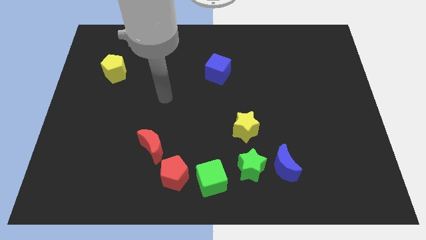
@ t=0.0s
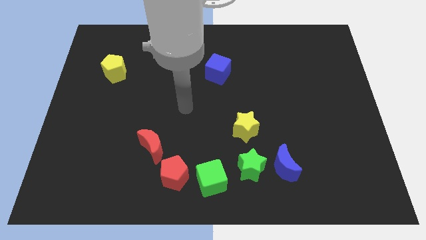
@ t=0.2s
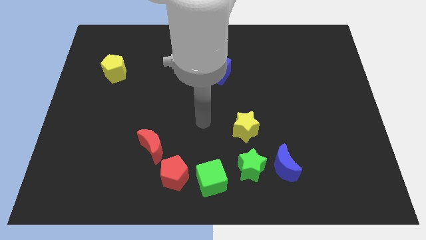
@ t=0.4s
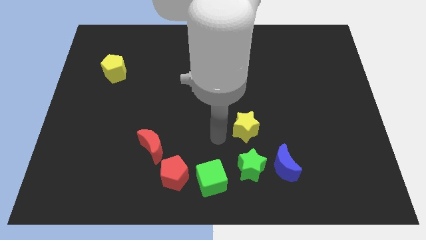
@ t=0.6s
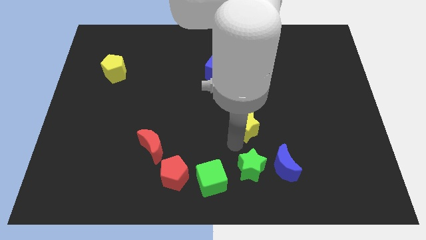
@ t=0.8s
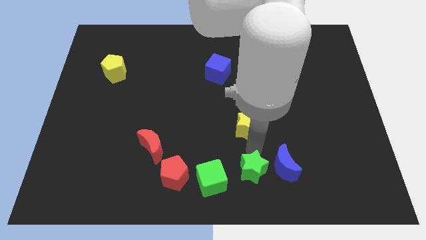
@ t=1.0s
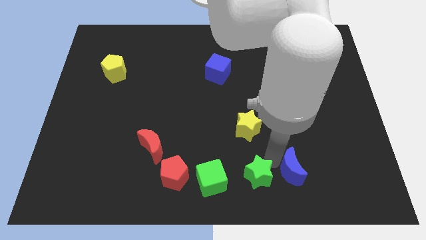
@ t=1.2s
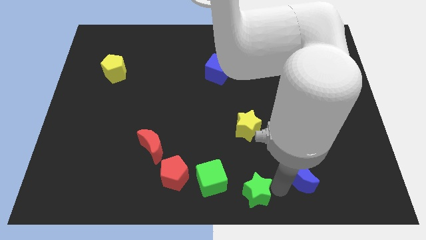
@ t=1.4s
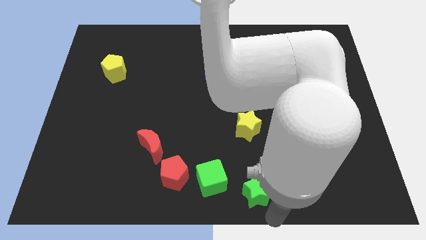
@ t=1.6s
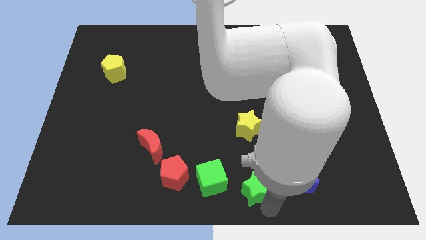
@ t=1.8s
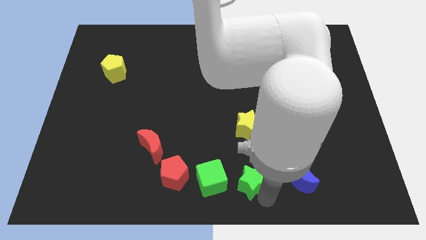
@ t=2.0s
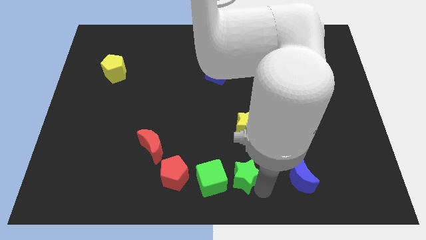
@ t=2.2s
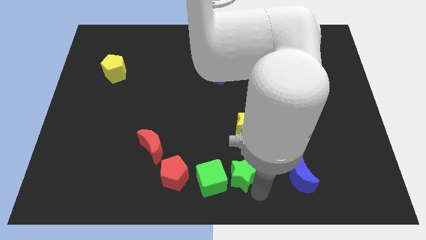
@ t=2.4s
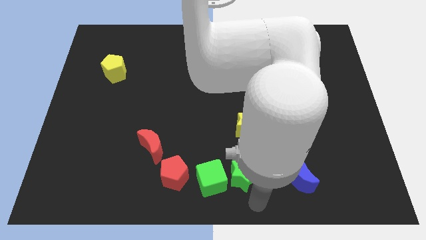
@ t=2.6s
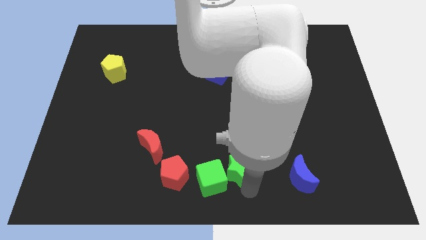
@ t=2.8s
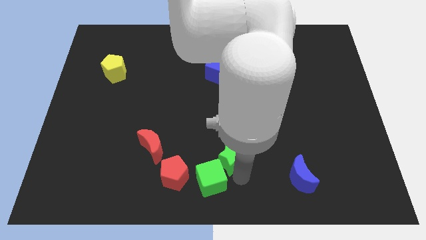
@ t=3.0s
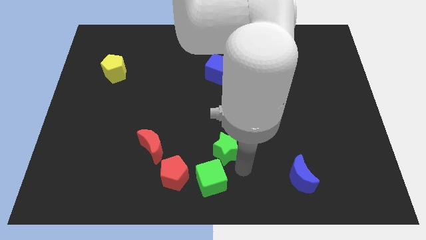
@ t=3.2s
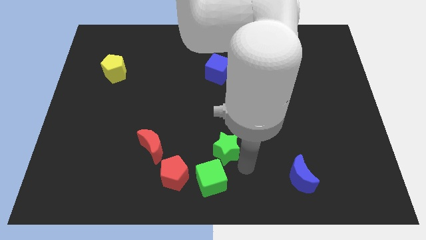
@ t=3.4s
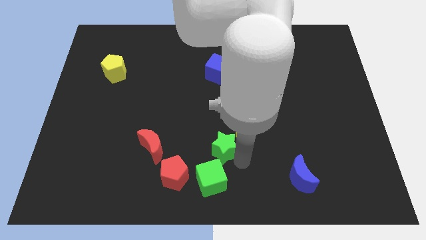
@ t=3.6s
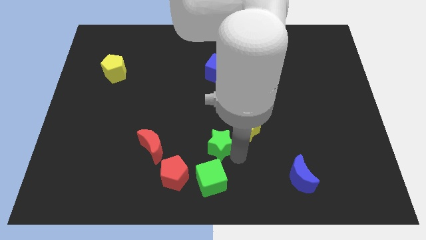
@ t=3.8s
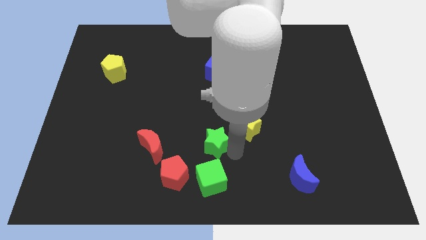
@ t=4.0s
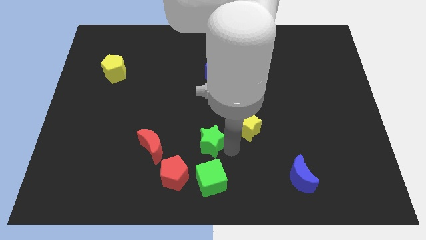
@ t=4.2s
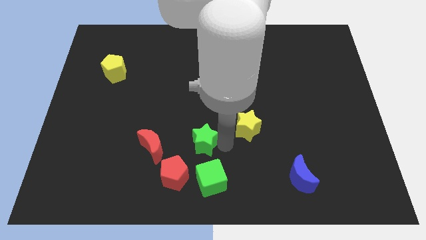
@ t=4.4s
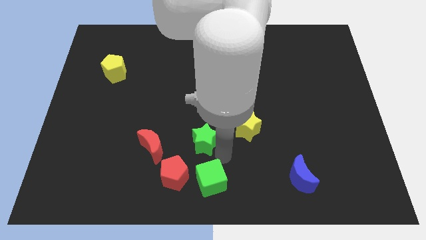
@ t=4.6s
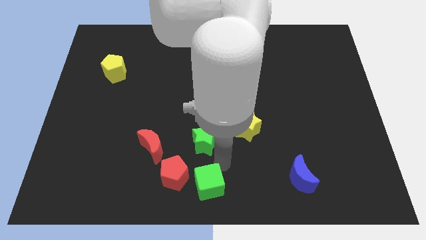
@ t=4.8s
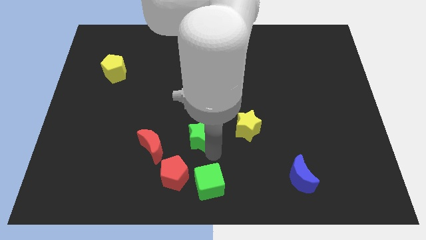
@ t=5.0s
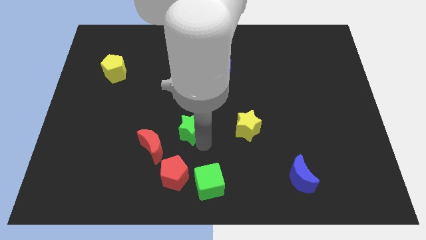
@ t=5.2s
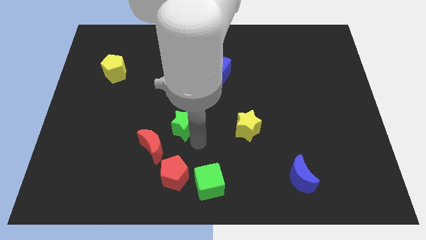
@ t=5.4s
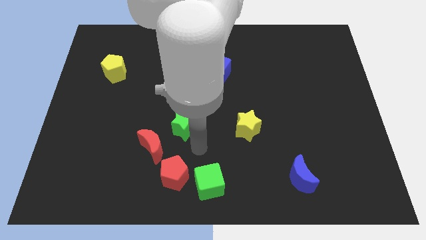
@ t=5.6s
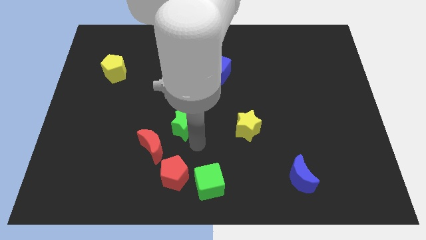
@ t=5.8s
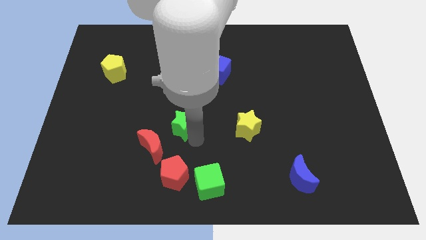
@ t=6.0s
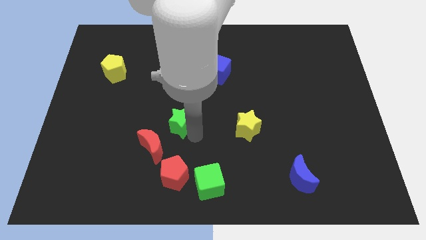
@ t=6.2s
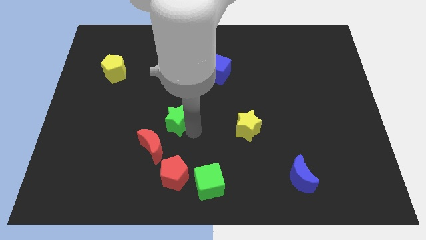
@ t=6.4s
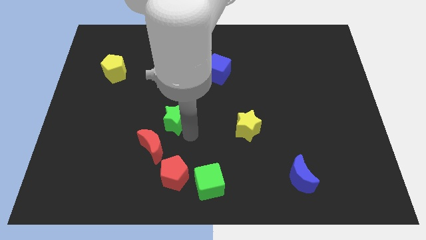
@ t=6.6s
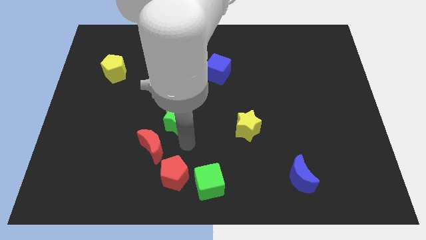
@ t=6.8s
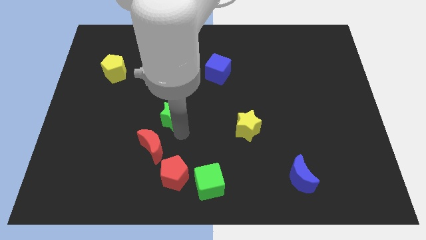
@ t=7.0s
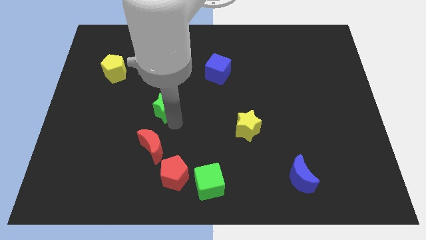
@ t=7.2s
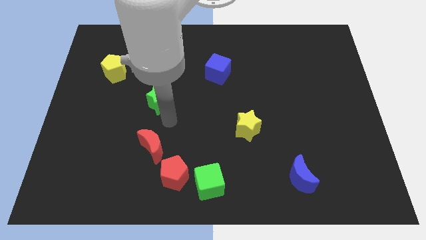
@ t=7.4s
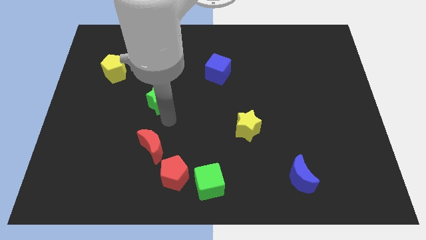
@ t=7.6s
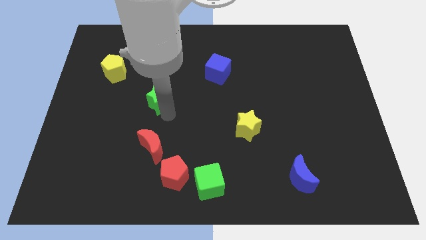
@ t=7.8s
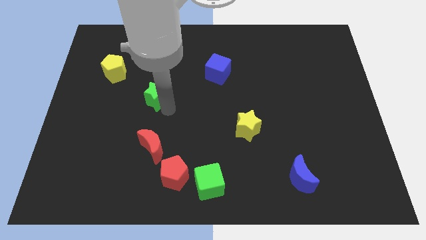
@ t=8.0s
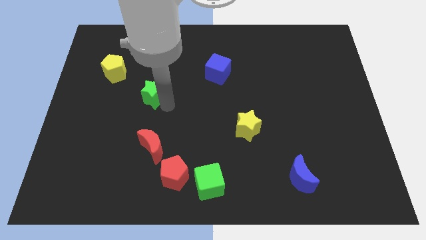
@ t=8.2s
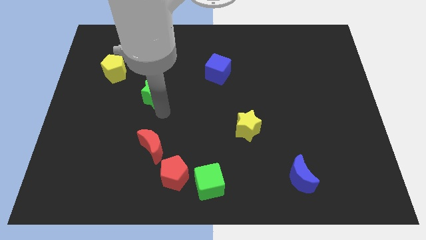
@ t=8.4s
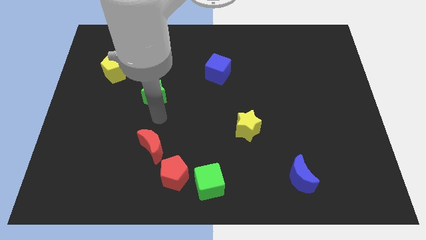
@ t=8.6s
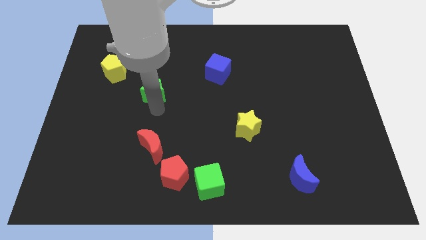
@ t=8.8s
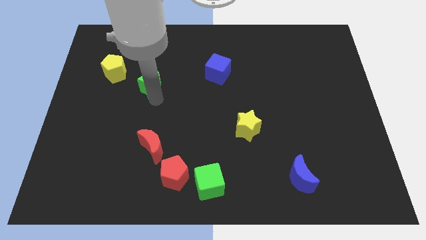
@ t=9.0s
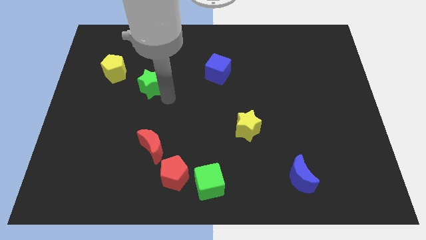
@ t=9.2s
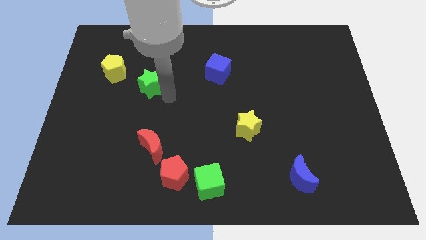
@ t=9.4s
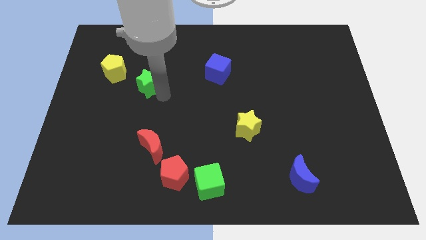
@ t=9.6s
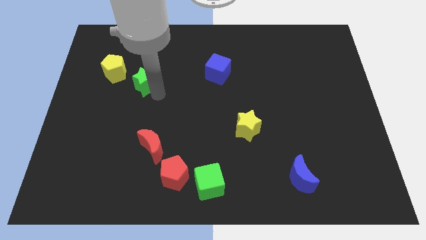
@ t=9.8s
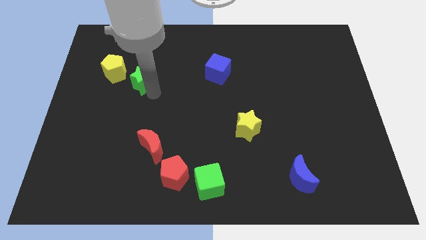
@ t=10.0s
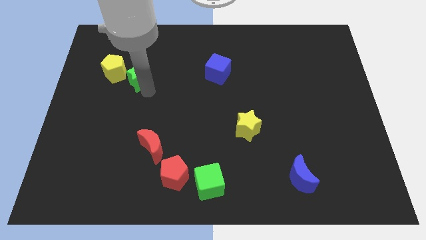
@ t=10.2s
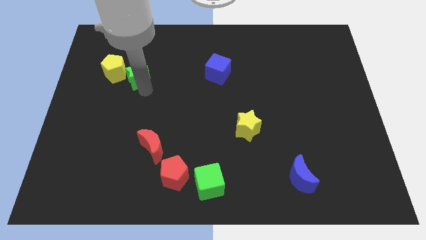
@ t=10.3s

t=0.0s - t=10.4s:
put the green star to the yellow pentagon

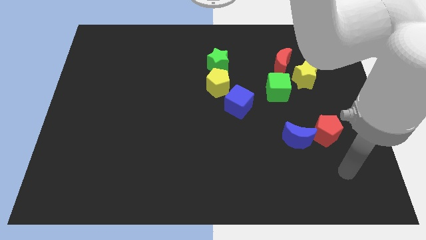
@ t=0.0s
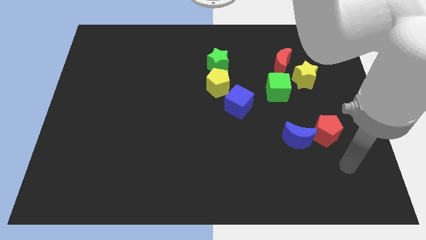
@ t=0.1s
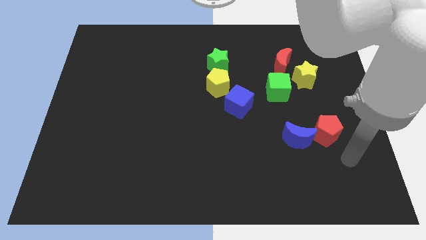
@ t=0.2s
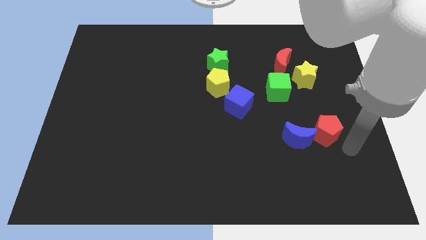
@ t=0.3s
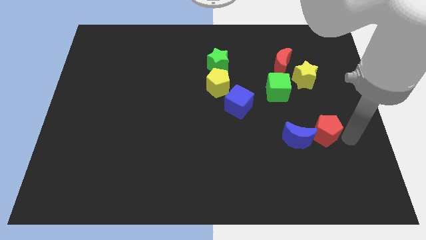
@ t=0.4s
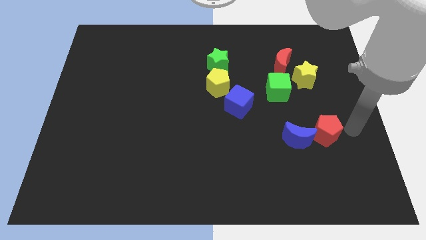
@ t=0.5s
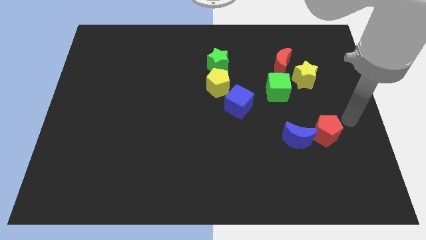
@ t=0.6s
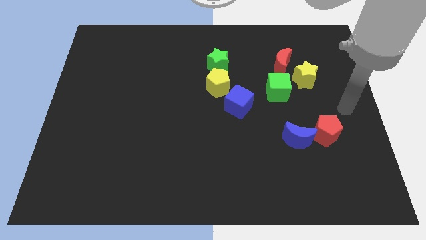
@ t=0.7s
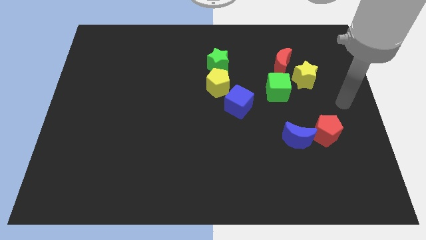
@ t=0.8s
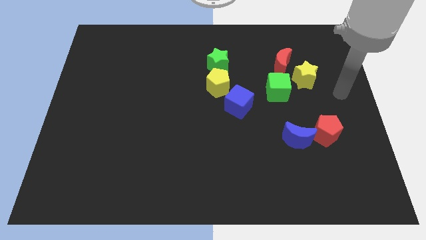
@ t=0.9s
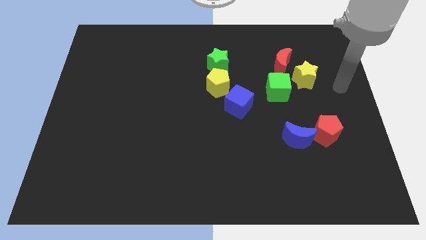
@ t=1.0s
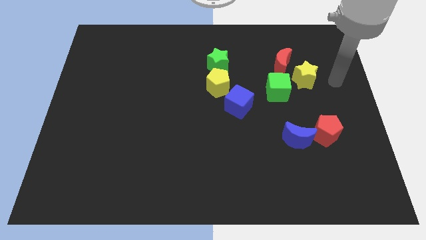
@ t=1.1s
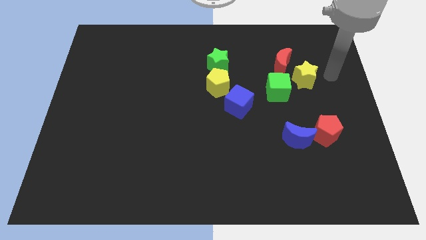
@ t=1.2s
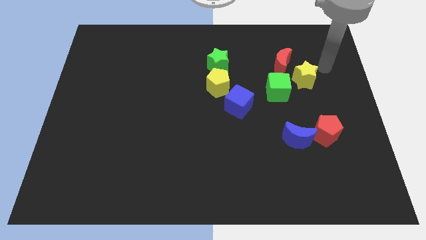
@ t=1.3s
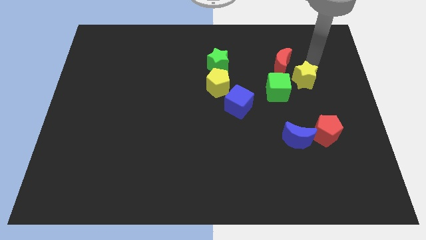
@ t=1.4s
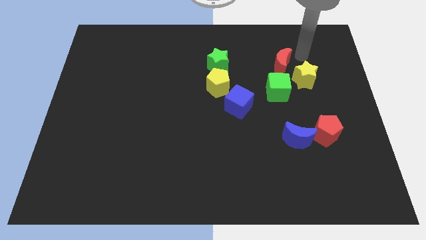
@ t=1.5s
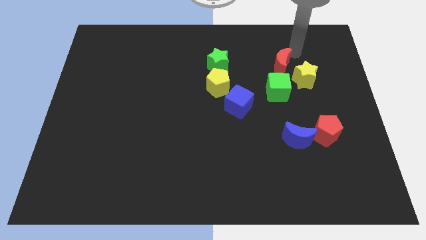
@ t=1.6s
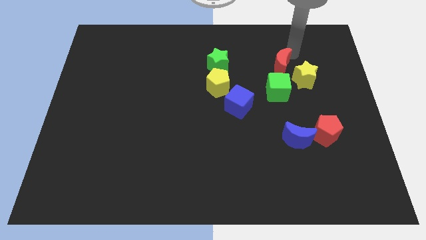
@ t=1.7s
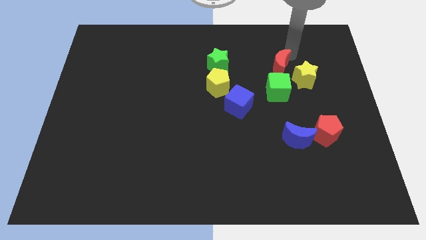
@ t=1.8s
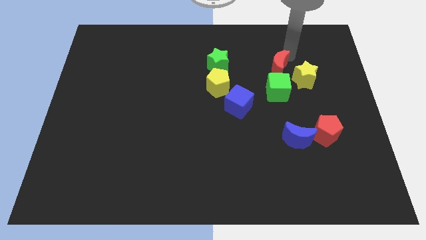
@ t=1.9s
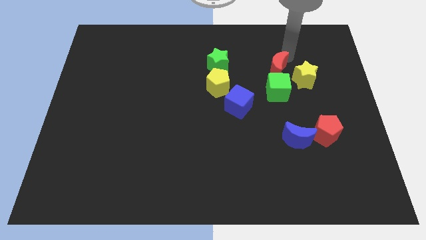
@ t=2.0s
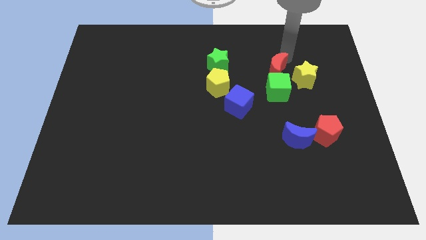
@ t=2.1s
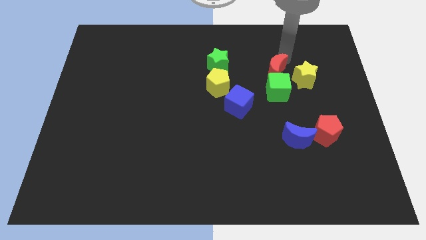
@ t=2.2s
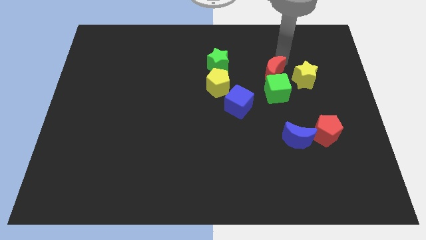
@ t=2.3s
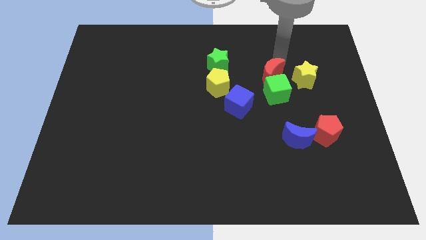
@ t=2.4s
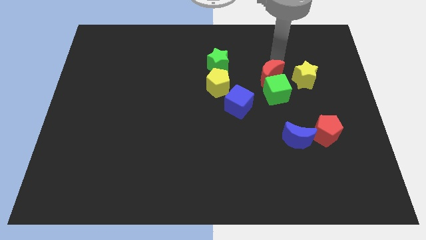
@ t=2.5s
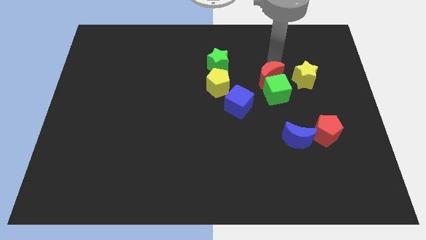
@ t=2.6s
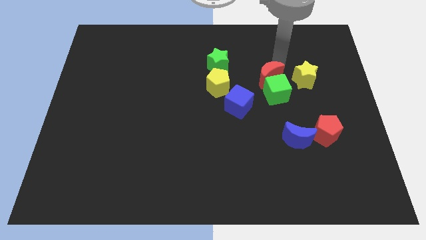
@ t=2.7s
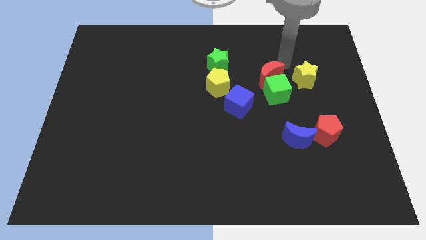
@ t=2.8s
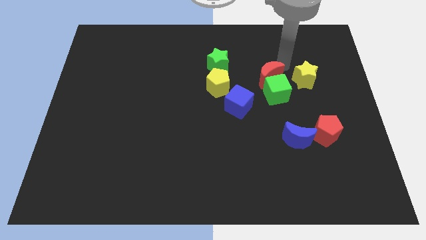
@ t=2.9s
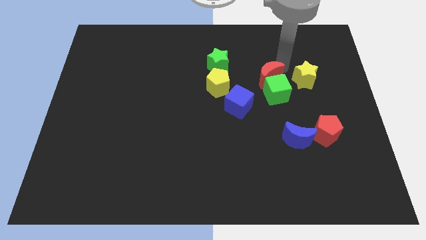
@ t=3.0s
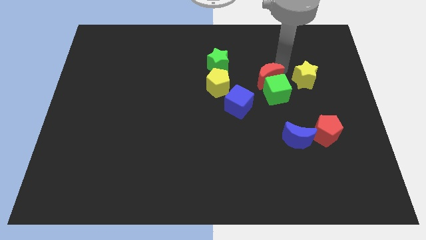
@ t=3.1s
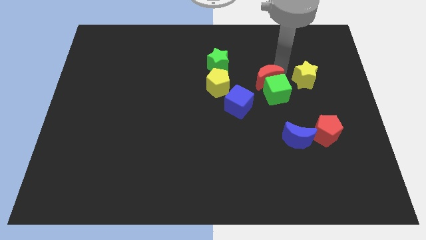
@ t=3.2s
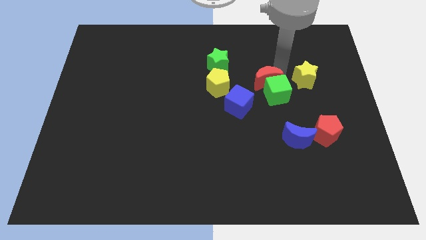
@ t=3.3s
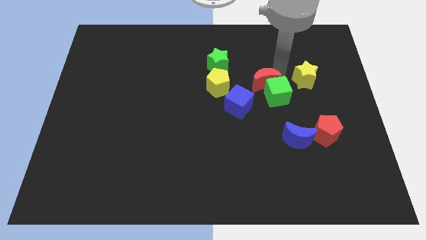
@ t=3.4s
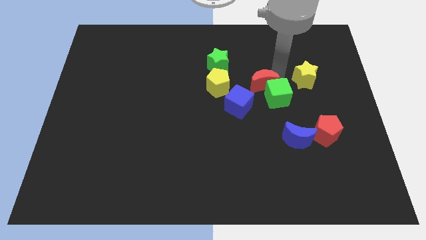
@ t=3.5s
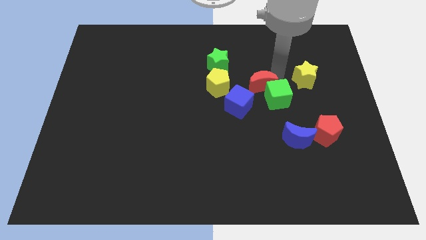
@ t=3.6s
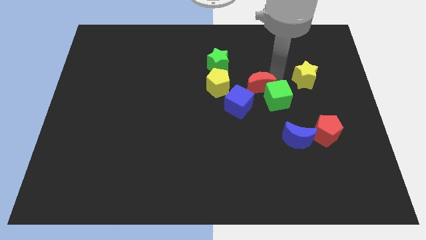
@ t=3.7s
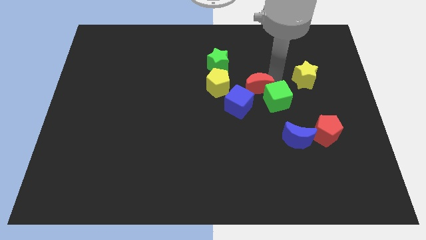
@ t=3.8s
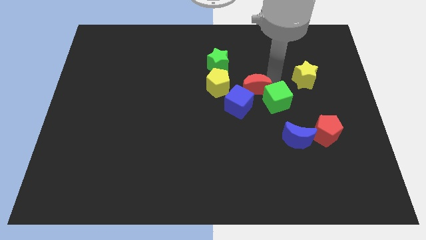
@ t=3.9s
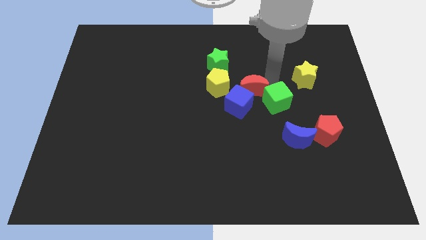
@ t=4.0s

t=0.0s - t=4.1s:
slide the red moon to the blue cube
